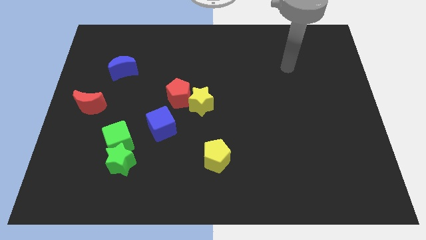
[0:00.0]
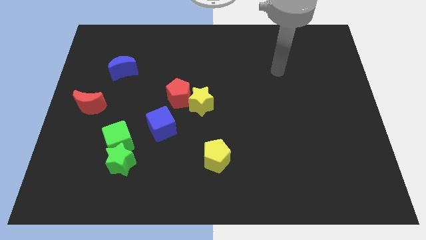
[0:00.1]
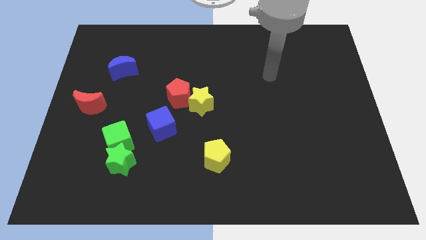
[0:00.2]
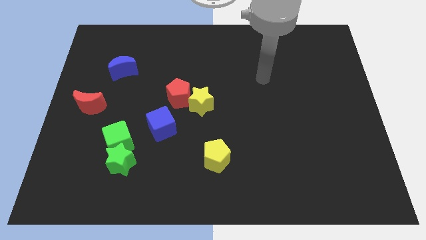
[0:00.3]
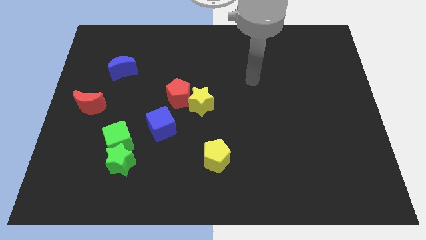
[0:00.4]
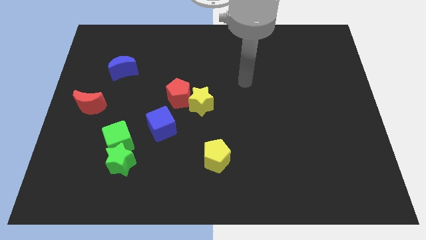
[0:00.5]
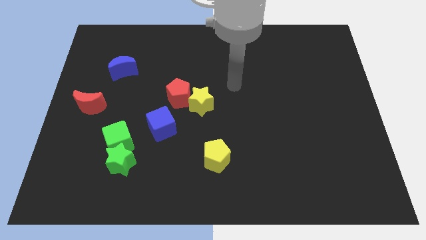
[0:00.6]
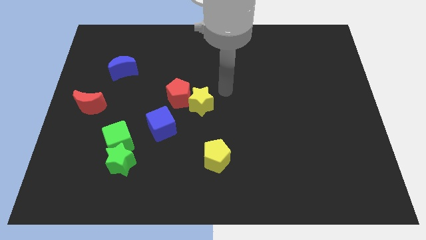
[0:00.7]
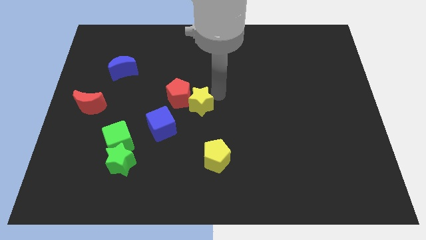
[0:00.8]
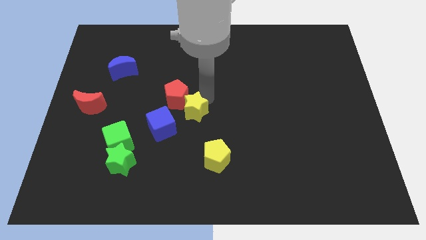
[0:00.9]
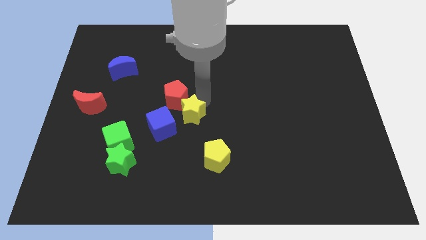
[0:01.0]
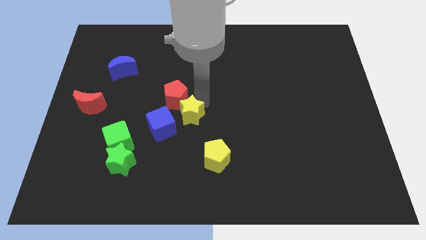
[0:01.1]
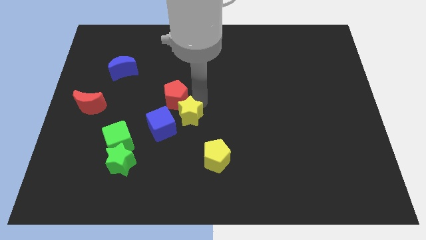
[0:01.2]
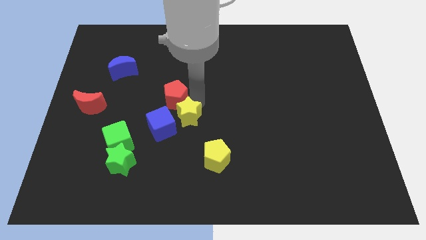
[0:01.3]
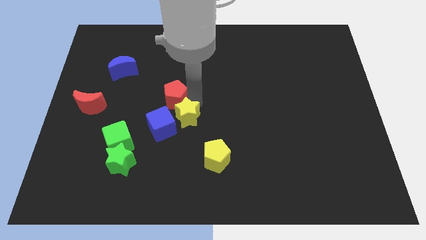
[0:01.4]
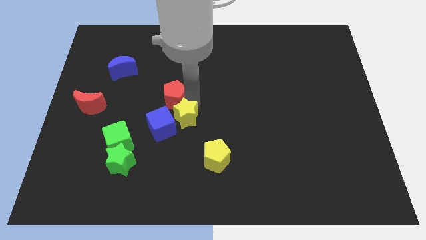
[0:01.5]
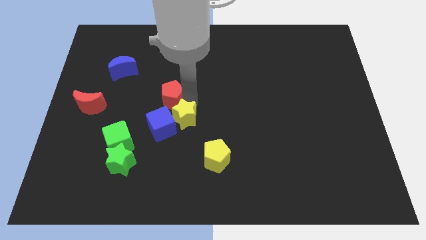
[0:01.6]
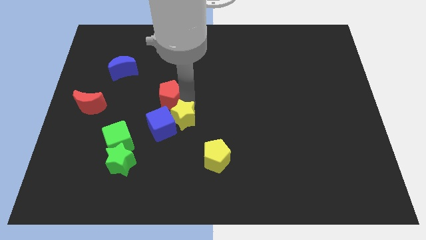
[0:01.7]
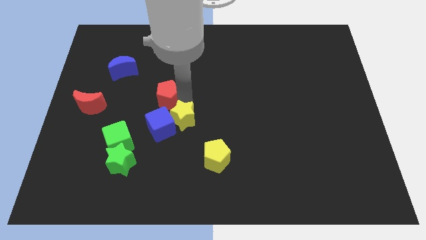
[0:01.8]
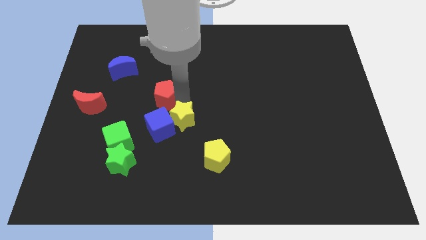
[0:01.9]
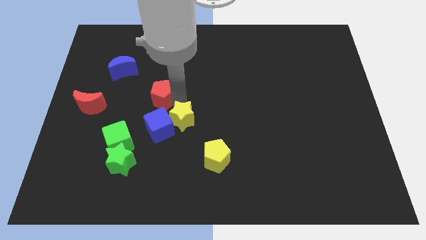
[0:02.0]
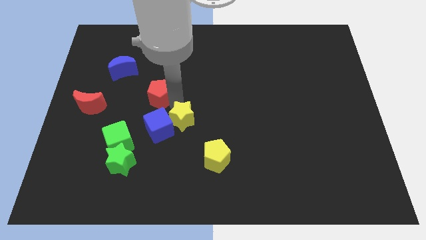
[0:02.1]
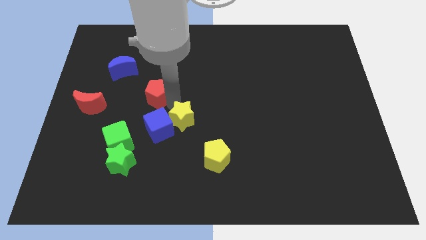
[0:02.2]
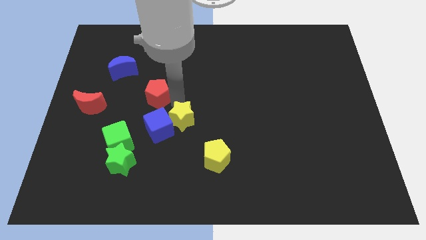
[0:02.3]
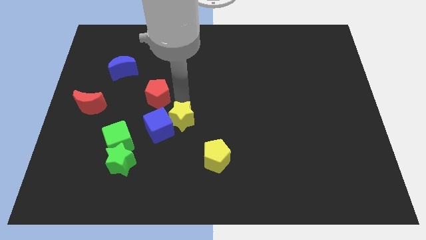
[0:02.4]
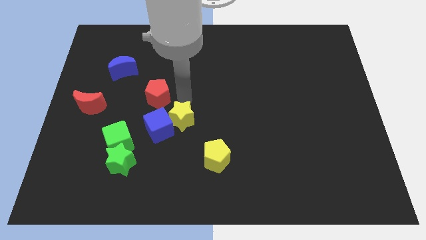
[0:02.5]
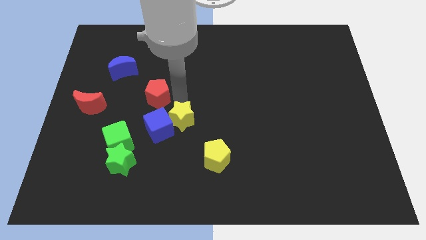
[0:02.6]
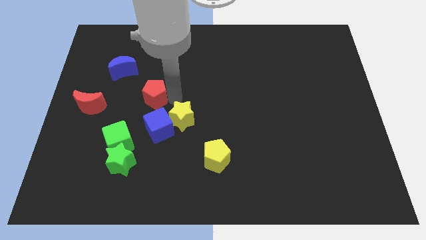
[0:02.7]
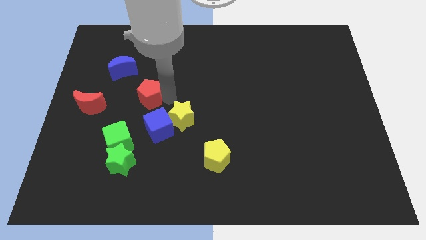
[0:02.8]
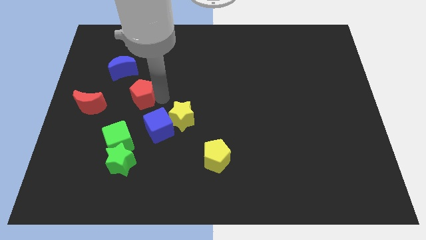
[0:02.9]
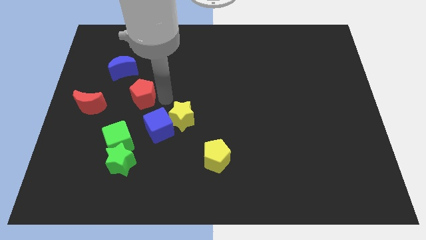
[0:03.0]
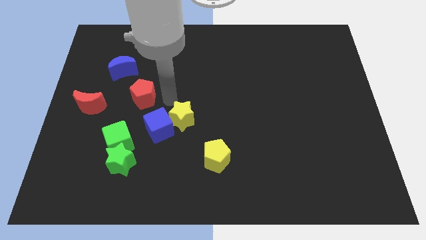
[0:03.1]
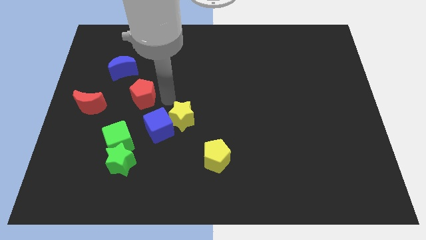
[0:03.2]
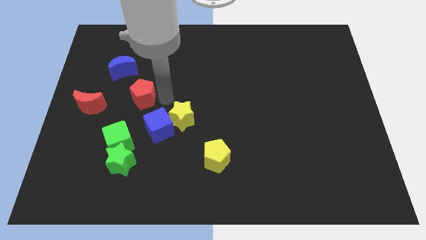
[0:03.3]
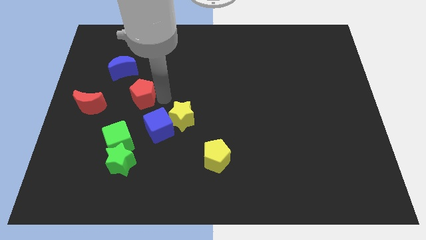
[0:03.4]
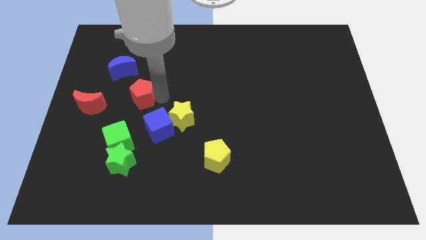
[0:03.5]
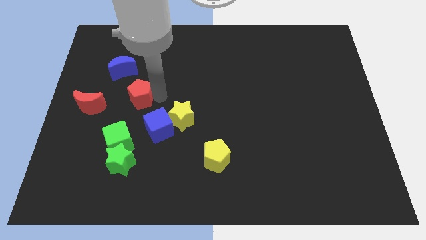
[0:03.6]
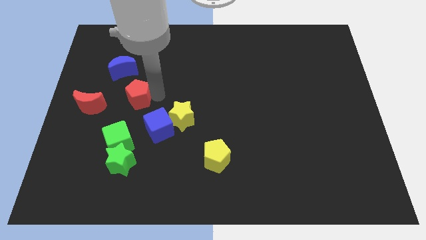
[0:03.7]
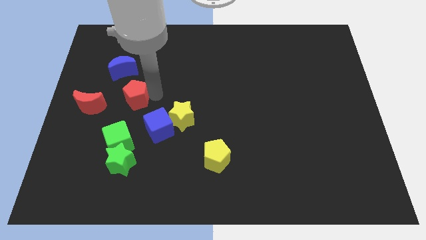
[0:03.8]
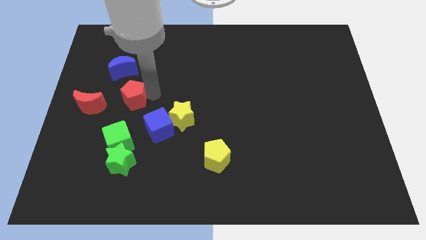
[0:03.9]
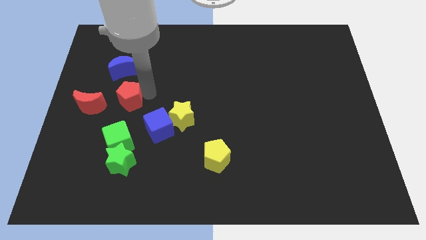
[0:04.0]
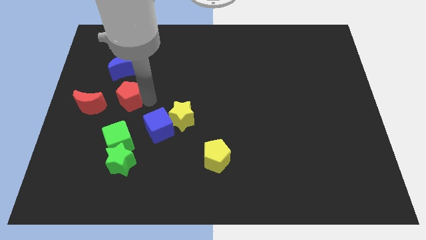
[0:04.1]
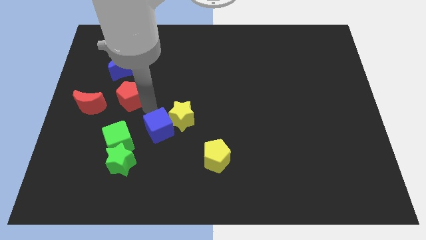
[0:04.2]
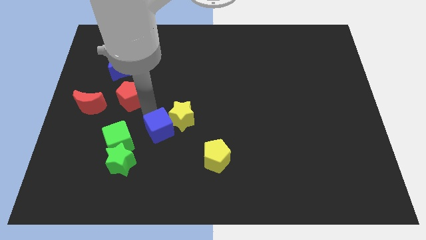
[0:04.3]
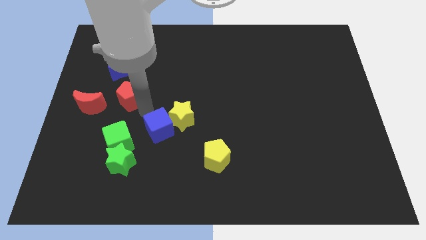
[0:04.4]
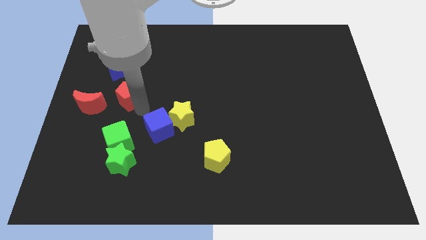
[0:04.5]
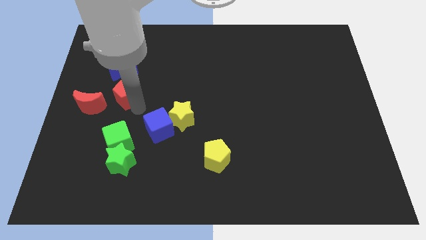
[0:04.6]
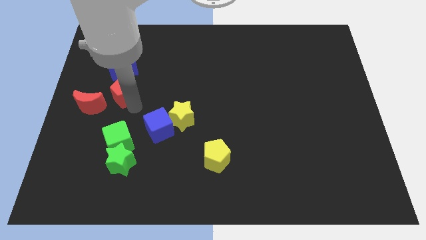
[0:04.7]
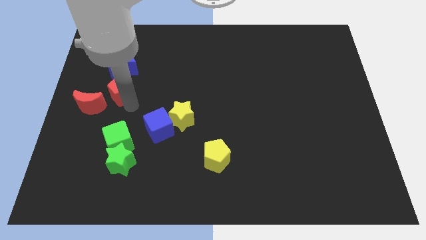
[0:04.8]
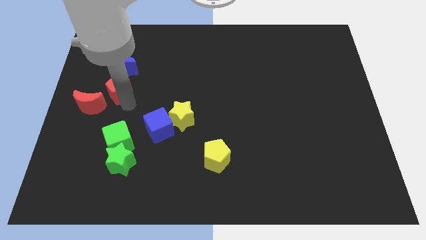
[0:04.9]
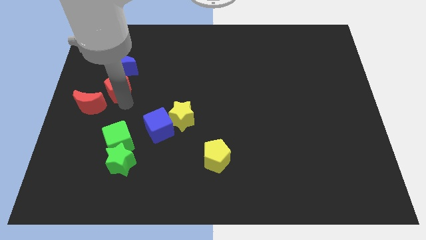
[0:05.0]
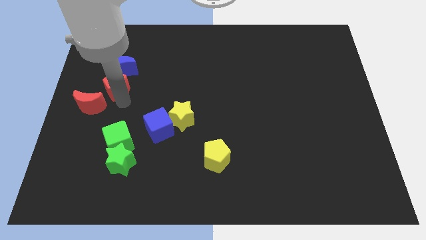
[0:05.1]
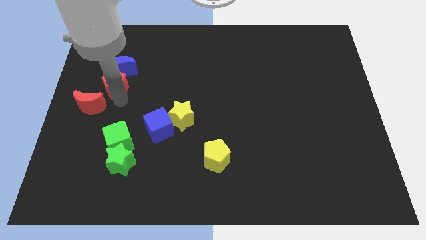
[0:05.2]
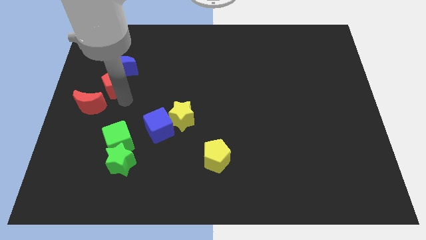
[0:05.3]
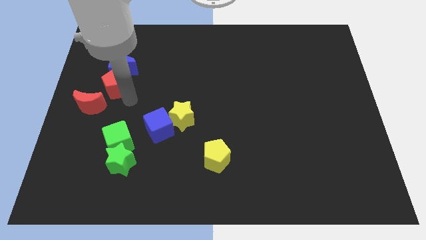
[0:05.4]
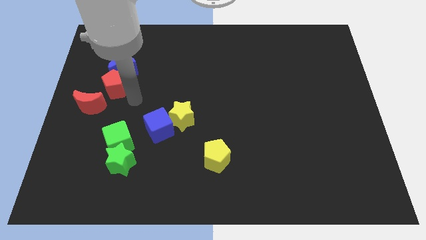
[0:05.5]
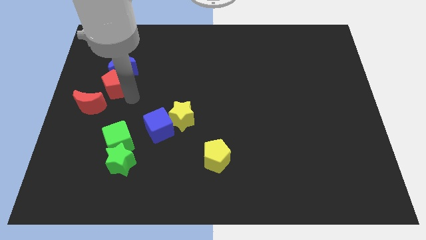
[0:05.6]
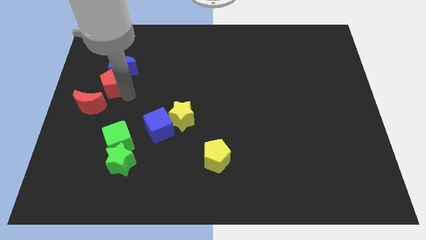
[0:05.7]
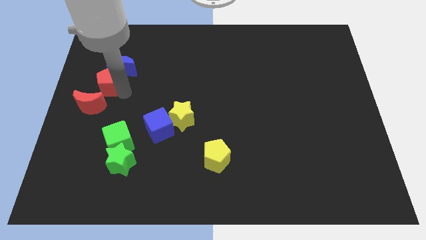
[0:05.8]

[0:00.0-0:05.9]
push the red pentagon to the left side

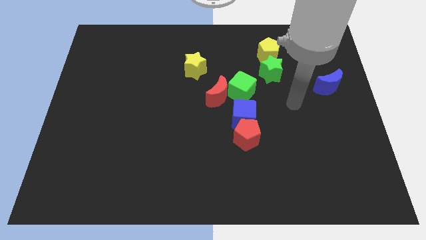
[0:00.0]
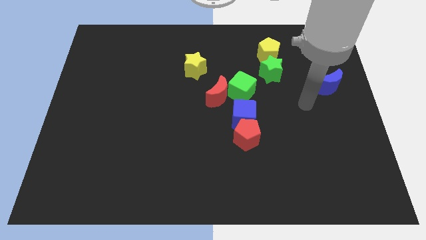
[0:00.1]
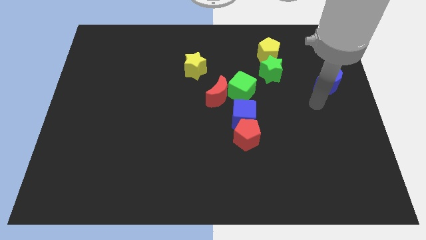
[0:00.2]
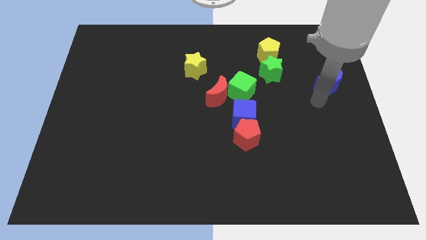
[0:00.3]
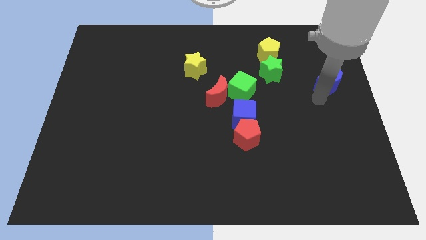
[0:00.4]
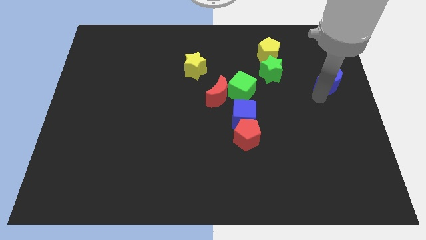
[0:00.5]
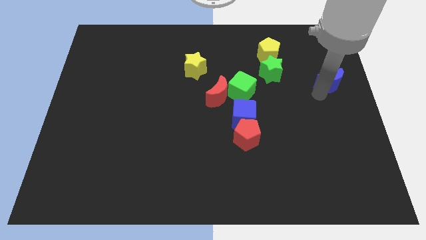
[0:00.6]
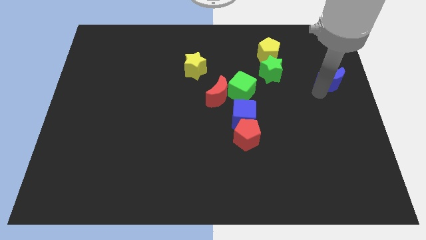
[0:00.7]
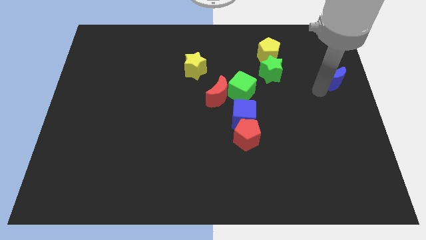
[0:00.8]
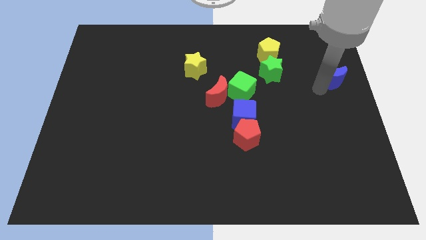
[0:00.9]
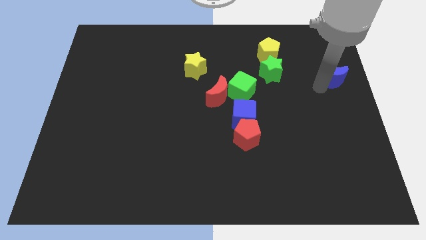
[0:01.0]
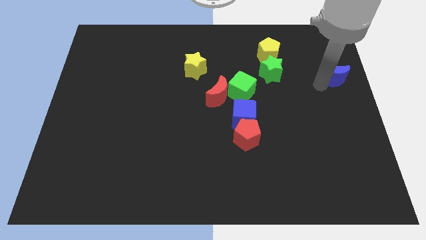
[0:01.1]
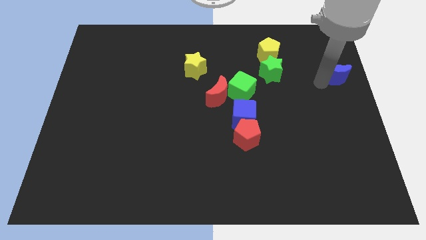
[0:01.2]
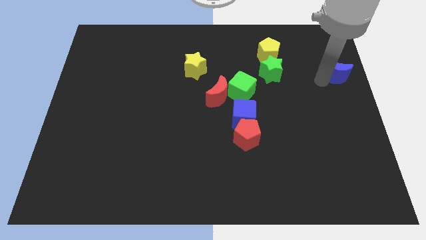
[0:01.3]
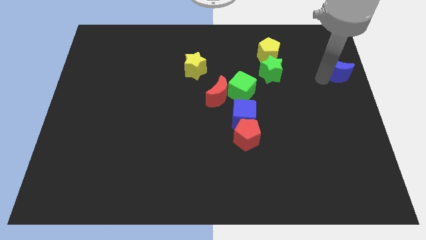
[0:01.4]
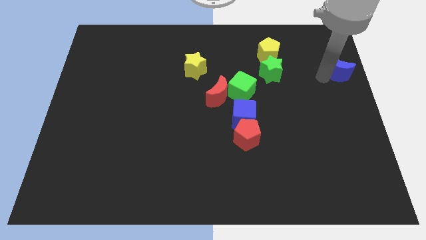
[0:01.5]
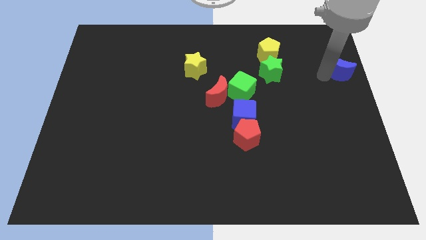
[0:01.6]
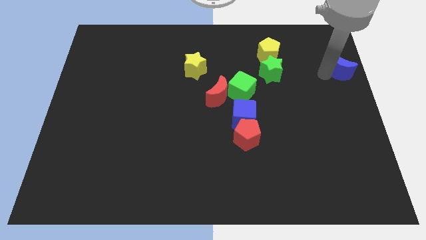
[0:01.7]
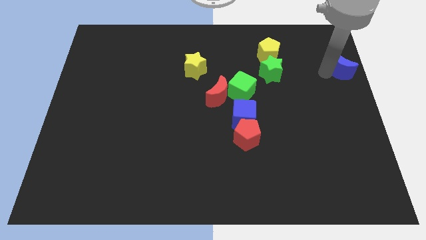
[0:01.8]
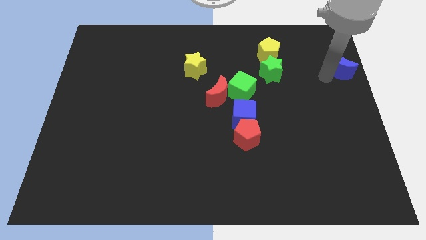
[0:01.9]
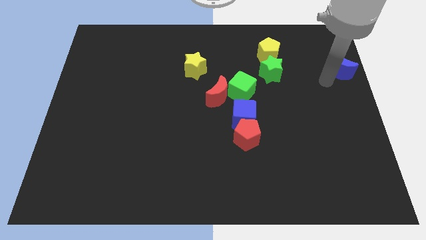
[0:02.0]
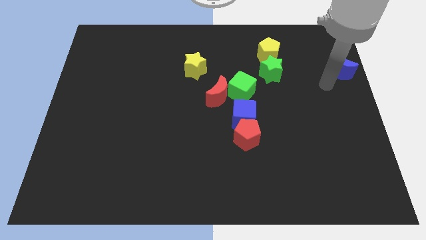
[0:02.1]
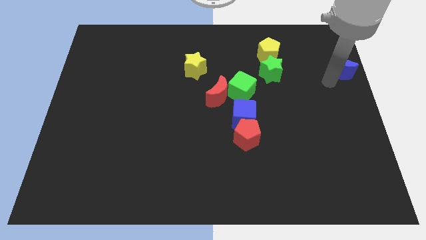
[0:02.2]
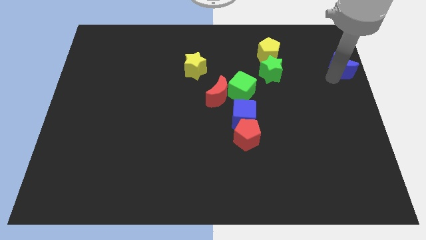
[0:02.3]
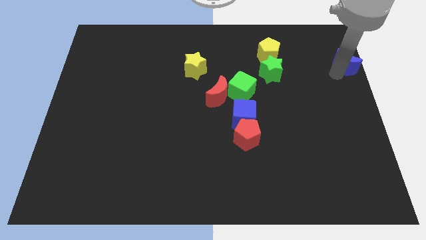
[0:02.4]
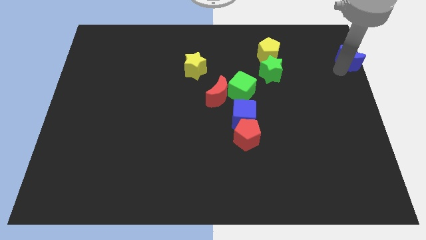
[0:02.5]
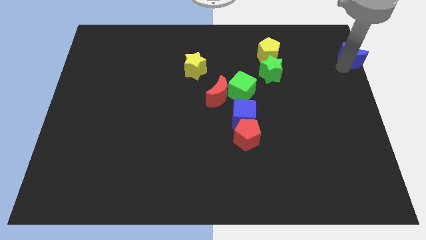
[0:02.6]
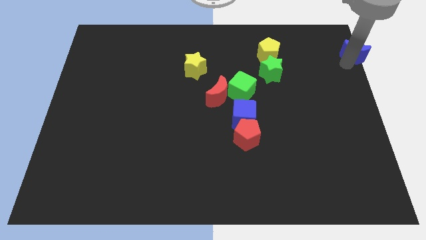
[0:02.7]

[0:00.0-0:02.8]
push the blue moon to the top right
